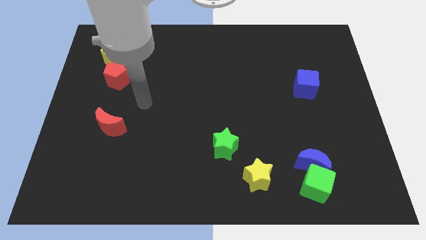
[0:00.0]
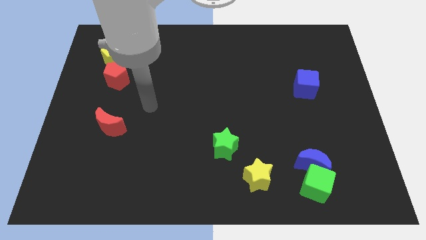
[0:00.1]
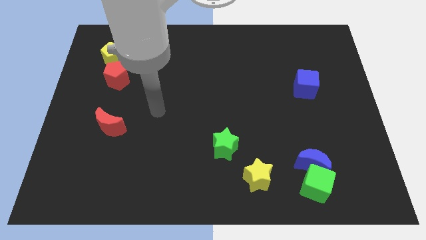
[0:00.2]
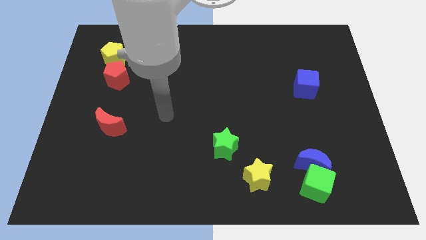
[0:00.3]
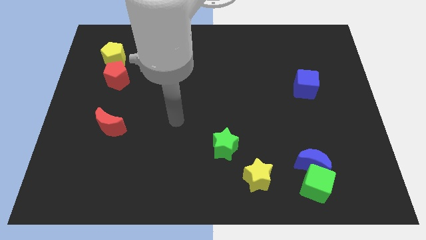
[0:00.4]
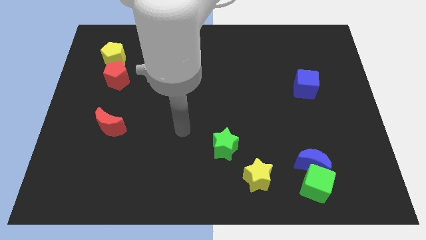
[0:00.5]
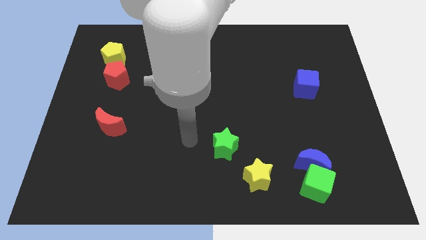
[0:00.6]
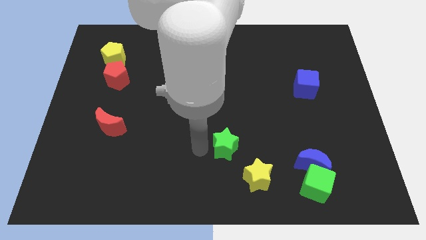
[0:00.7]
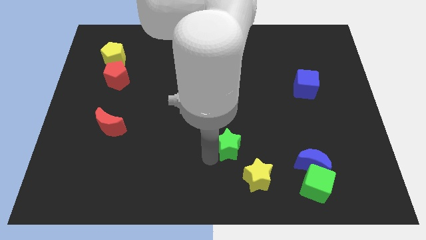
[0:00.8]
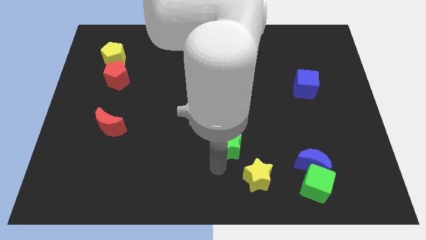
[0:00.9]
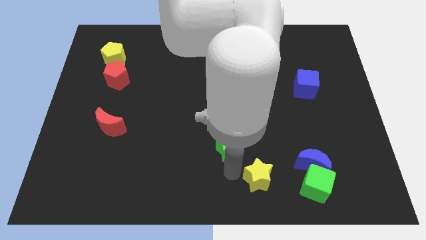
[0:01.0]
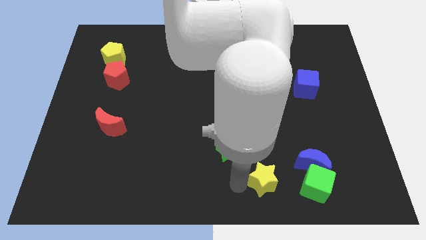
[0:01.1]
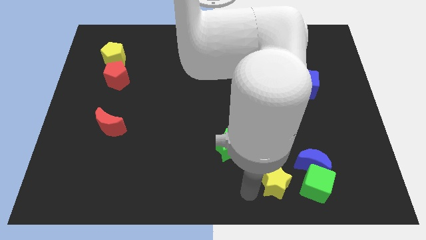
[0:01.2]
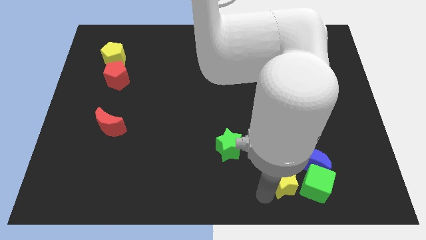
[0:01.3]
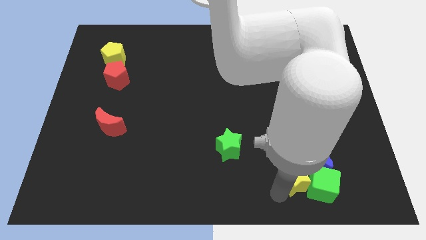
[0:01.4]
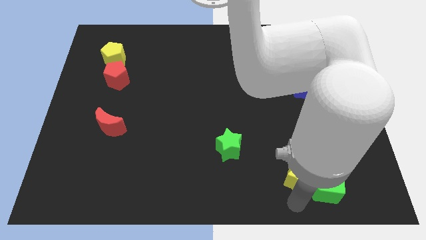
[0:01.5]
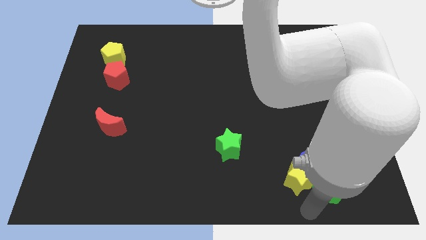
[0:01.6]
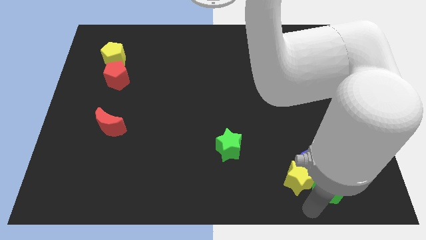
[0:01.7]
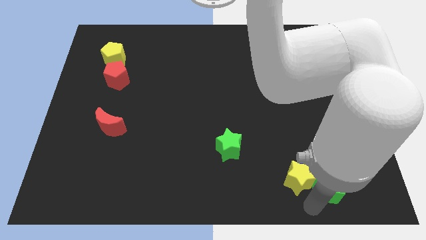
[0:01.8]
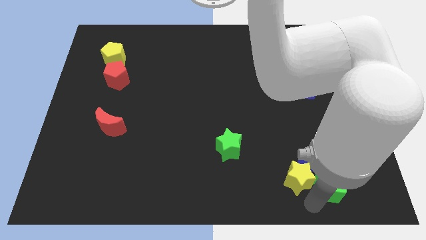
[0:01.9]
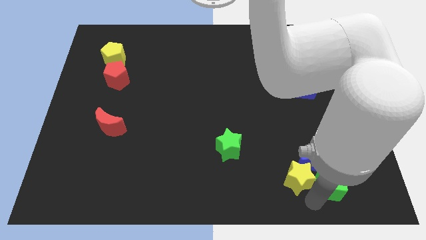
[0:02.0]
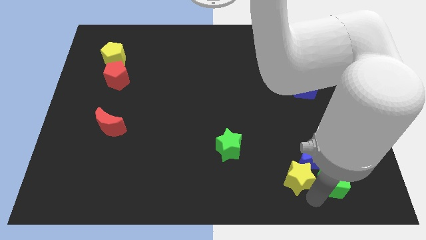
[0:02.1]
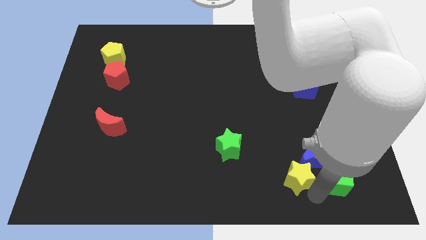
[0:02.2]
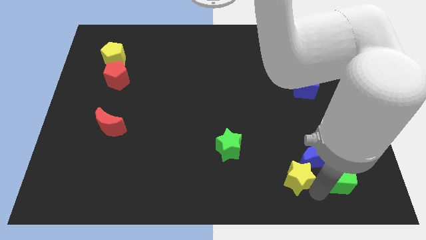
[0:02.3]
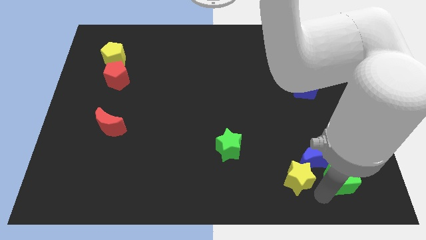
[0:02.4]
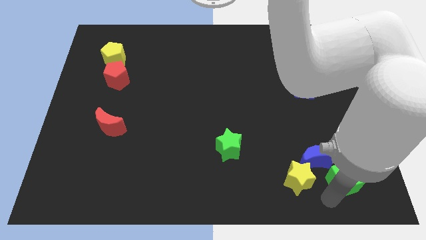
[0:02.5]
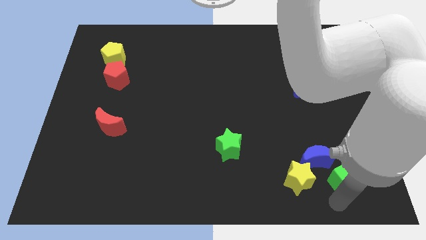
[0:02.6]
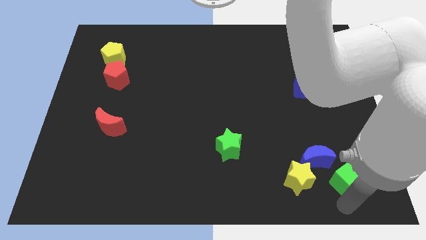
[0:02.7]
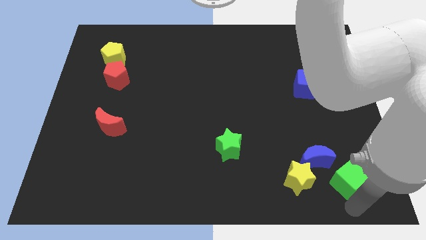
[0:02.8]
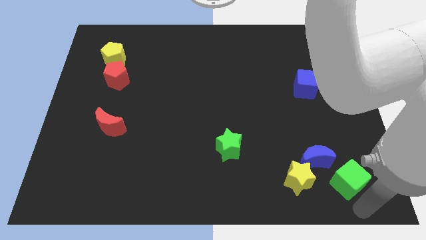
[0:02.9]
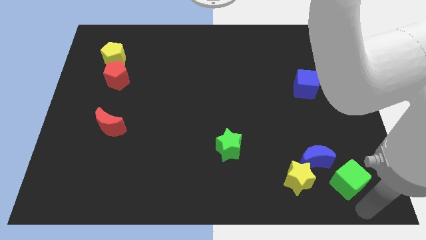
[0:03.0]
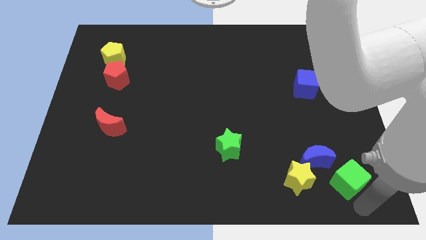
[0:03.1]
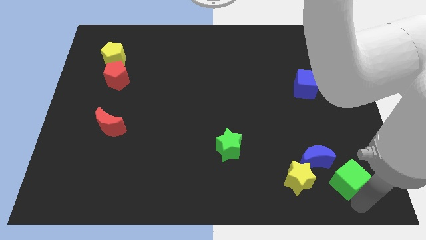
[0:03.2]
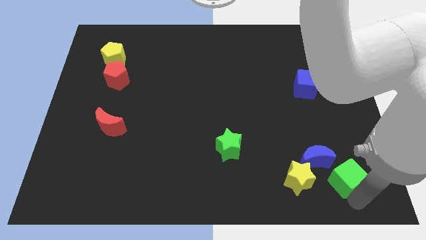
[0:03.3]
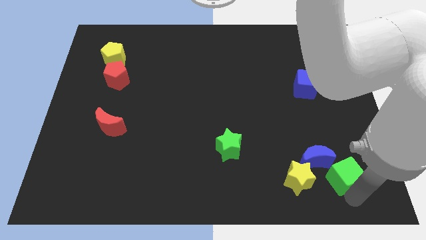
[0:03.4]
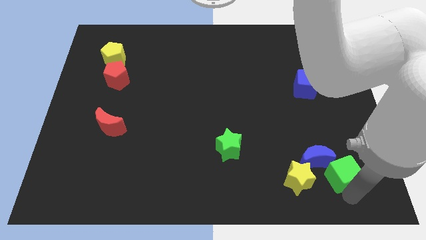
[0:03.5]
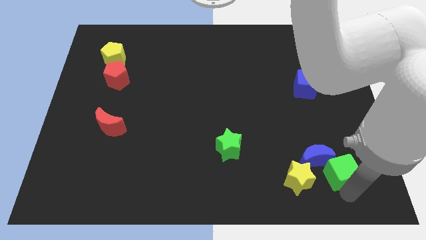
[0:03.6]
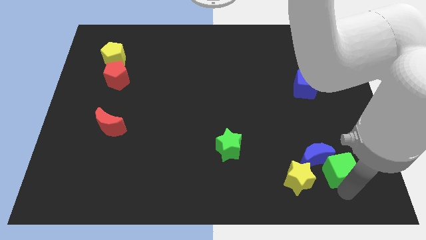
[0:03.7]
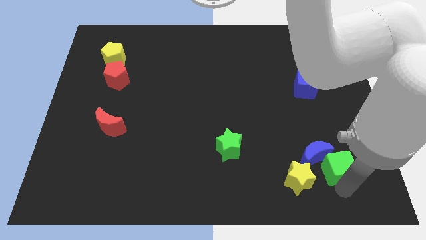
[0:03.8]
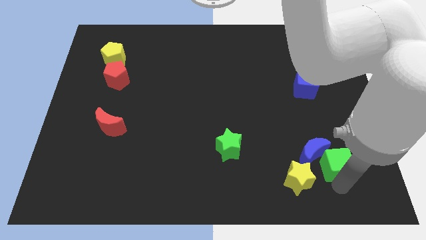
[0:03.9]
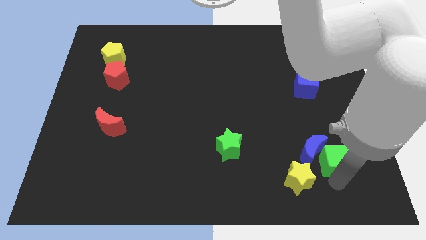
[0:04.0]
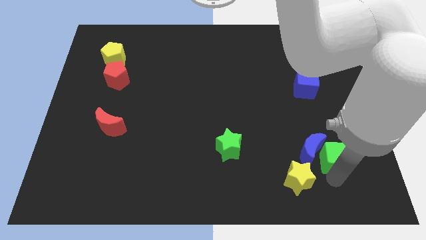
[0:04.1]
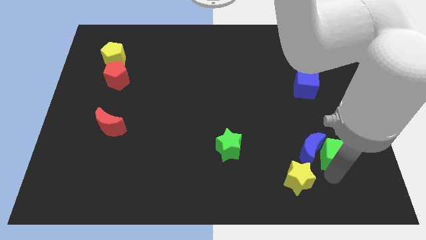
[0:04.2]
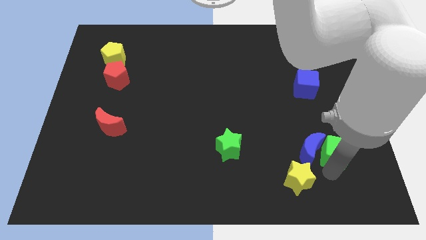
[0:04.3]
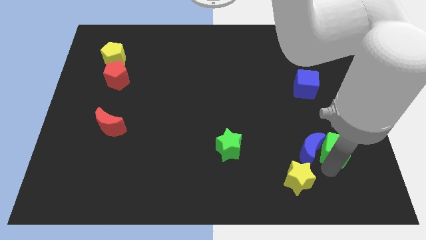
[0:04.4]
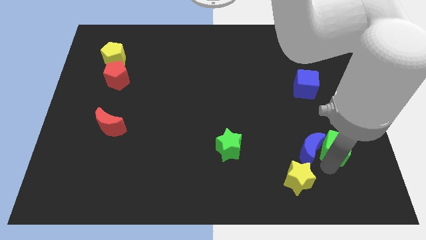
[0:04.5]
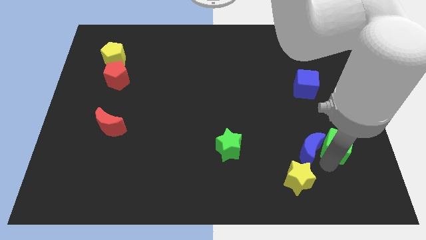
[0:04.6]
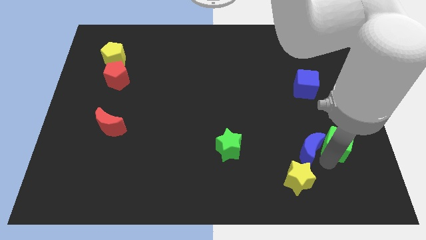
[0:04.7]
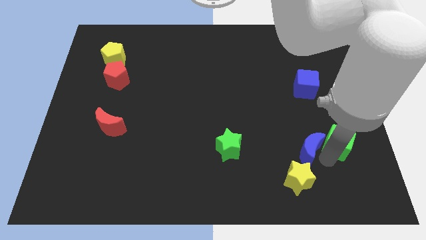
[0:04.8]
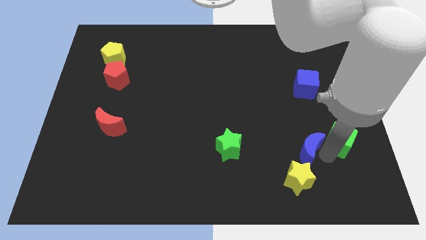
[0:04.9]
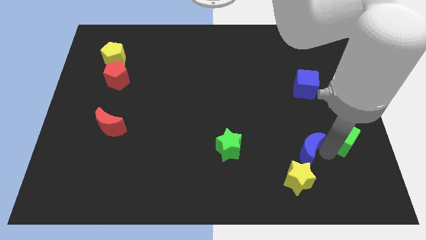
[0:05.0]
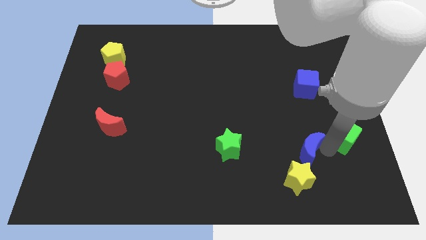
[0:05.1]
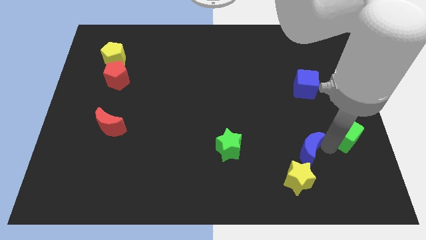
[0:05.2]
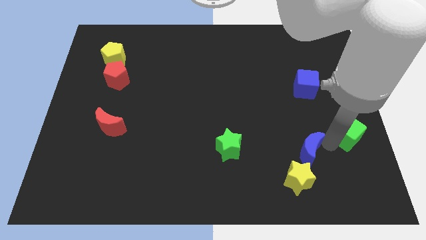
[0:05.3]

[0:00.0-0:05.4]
push the green cube to the right side

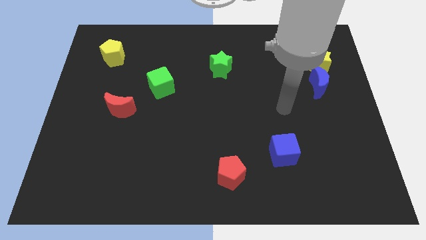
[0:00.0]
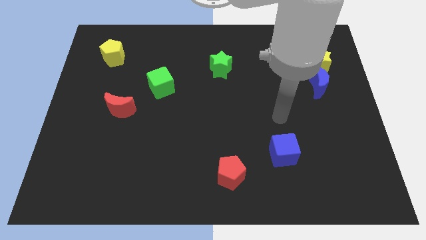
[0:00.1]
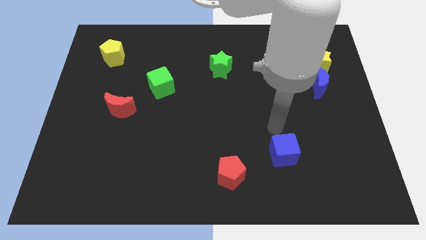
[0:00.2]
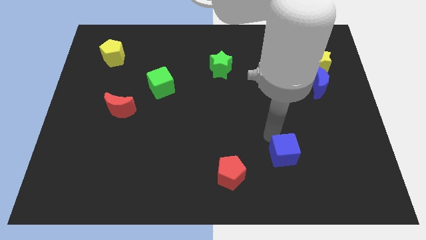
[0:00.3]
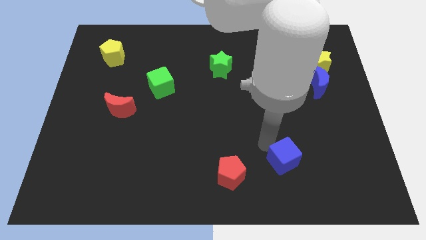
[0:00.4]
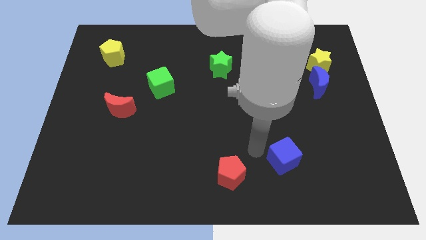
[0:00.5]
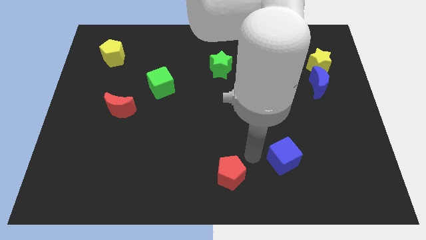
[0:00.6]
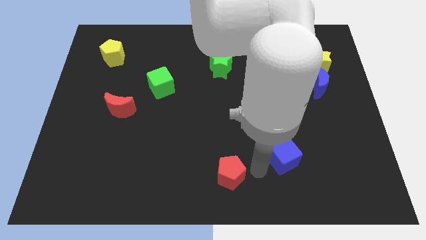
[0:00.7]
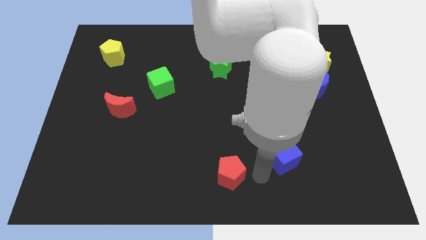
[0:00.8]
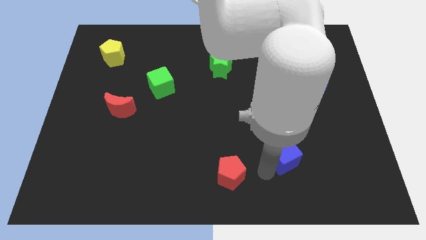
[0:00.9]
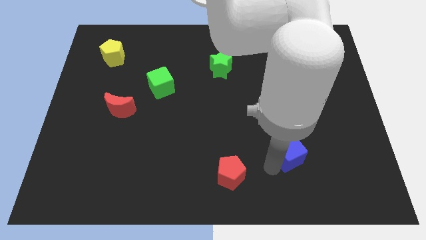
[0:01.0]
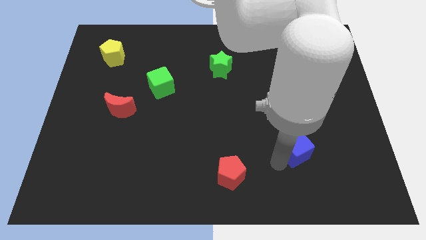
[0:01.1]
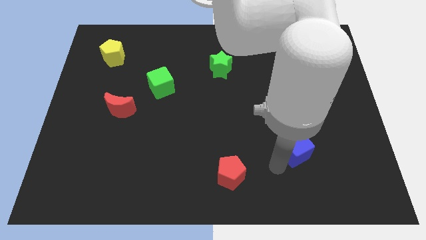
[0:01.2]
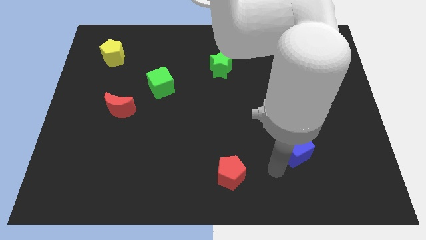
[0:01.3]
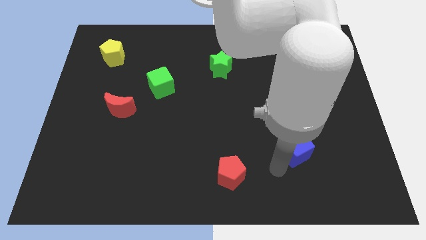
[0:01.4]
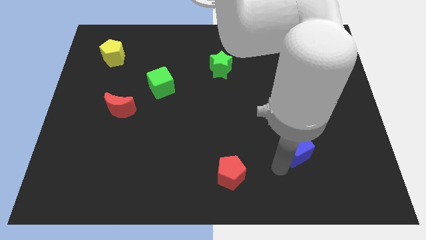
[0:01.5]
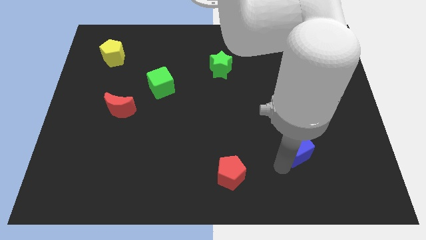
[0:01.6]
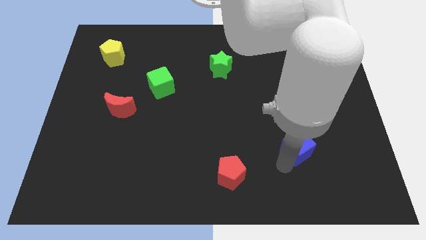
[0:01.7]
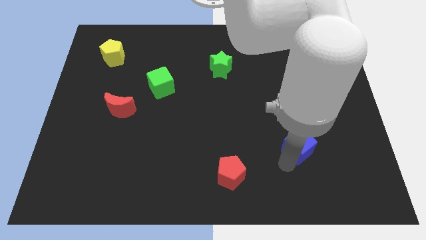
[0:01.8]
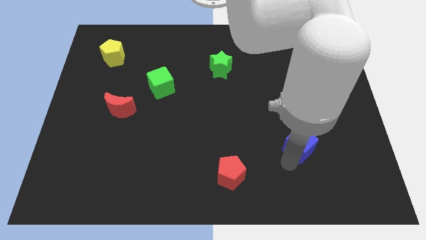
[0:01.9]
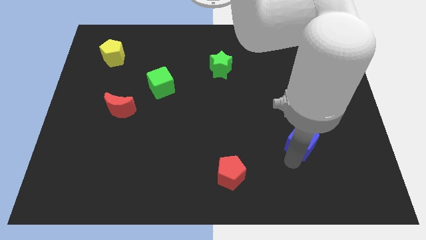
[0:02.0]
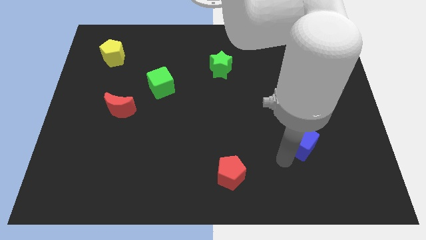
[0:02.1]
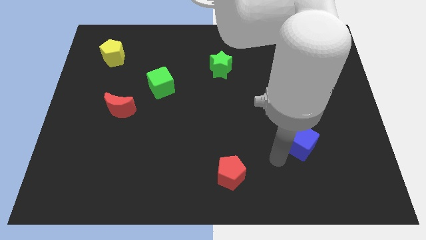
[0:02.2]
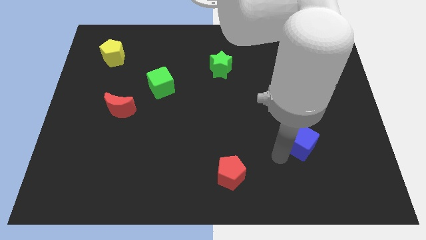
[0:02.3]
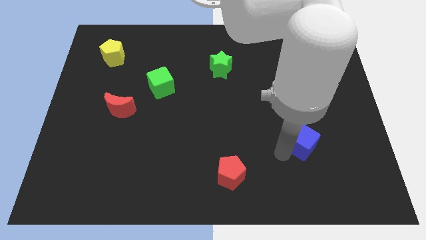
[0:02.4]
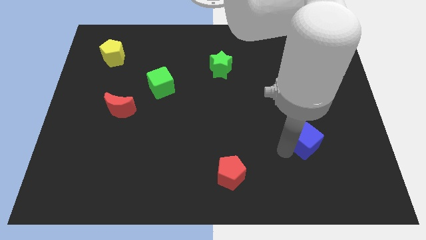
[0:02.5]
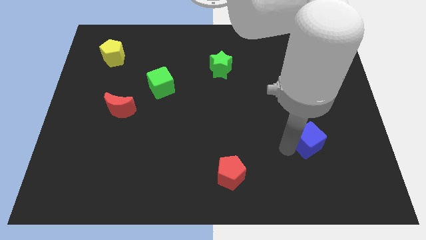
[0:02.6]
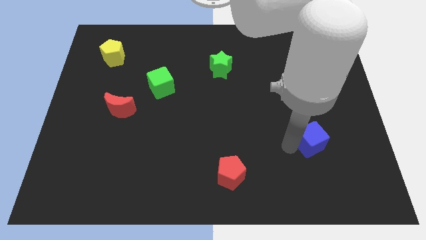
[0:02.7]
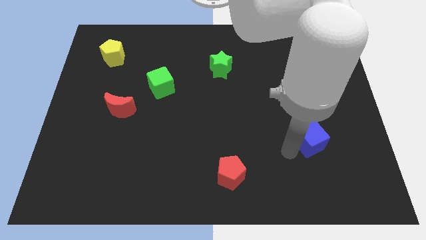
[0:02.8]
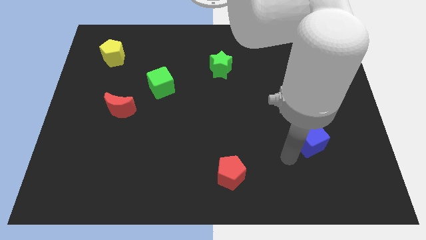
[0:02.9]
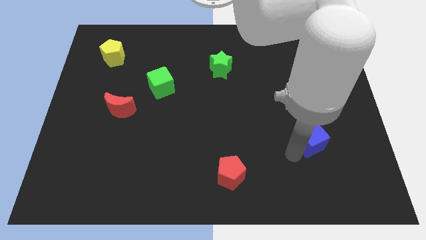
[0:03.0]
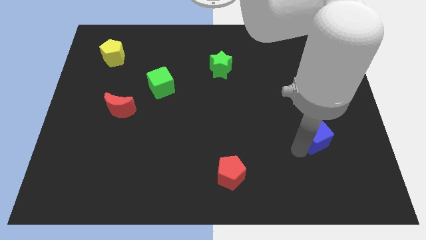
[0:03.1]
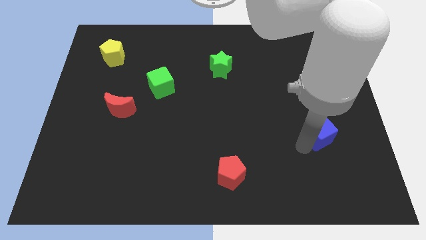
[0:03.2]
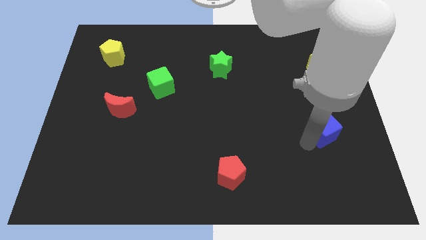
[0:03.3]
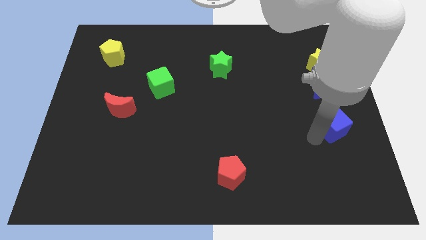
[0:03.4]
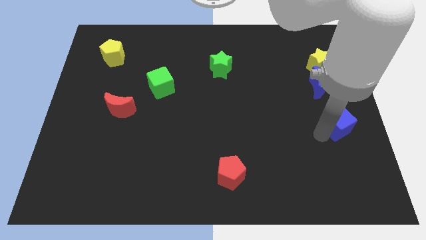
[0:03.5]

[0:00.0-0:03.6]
push the blue cube to the center right
